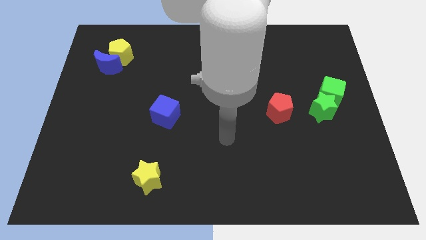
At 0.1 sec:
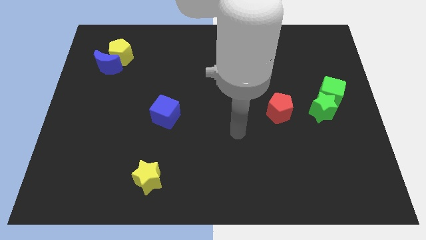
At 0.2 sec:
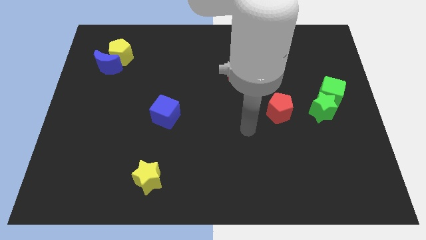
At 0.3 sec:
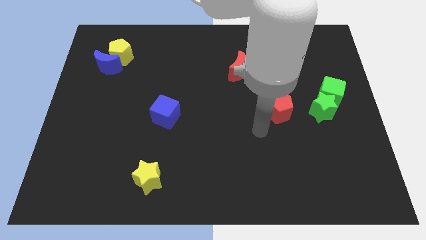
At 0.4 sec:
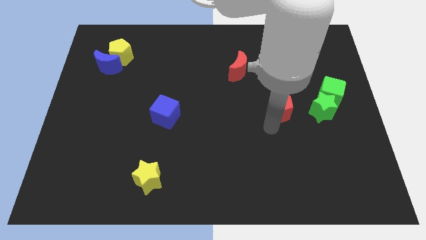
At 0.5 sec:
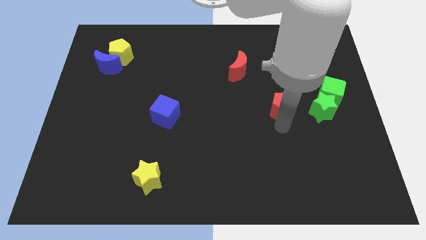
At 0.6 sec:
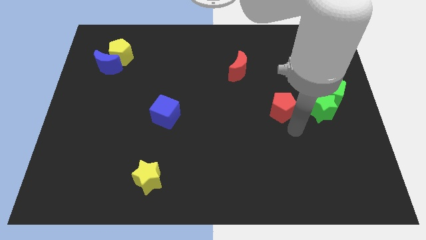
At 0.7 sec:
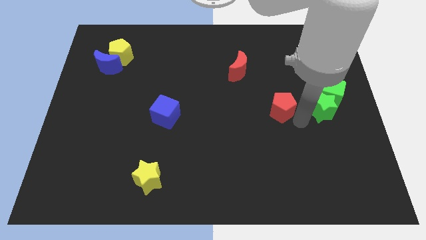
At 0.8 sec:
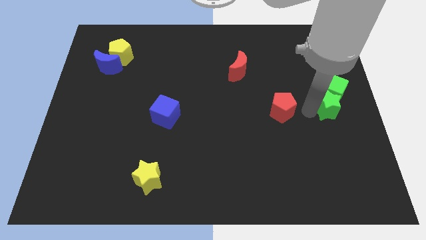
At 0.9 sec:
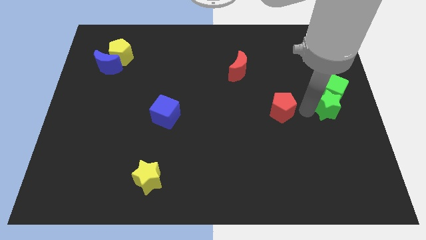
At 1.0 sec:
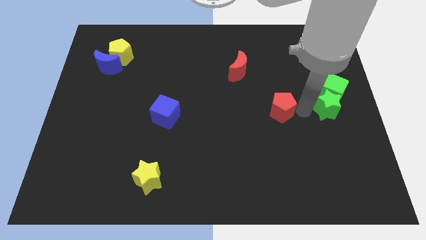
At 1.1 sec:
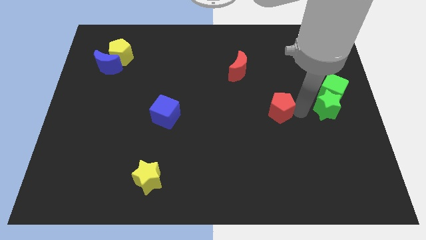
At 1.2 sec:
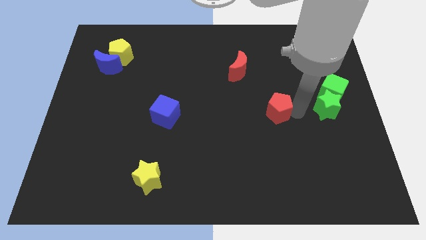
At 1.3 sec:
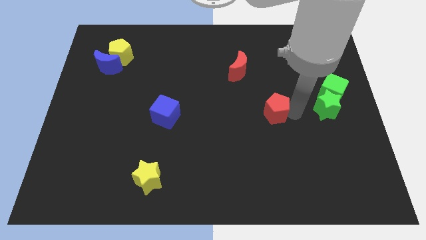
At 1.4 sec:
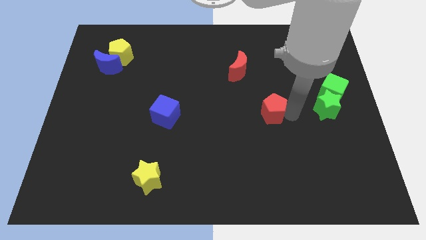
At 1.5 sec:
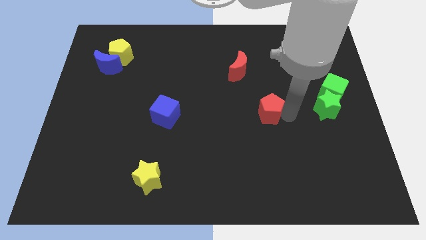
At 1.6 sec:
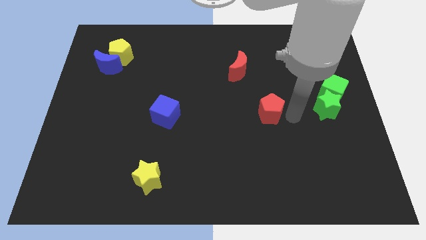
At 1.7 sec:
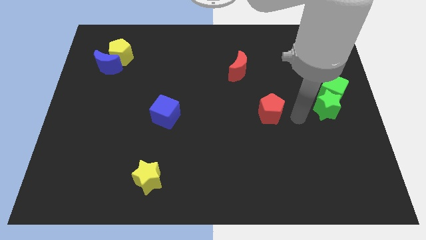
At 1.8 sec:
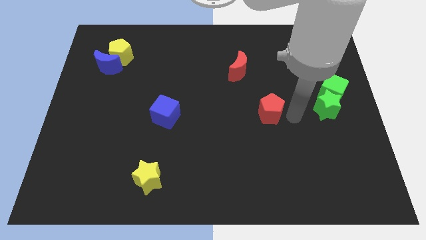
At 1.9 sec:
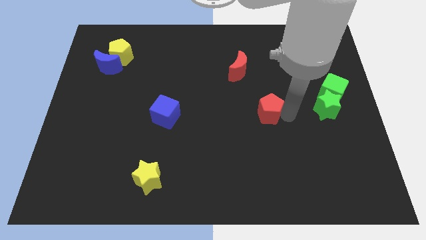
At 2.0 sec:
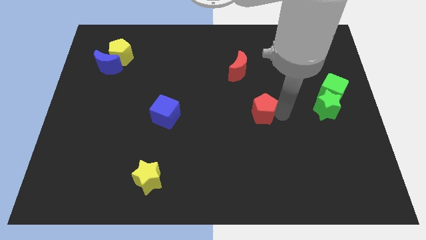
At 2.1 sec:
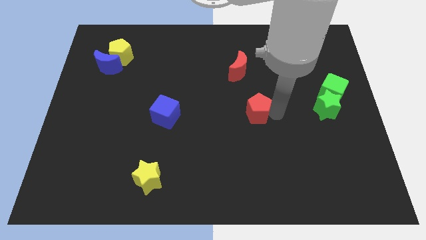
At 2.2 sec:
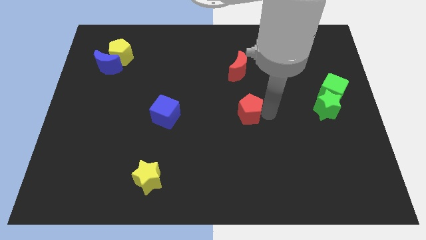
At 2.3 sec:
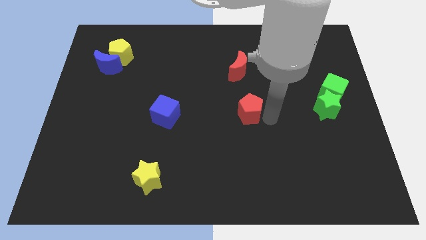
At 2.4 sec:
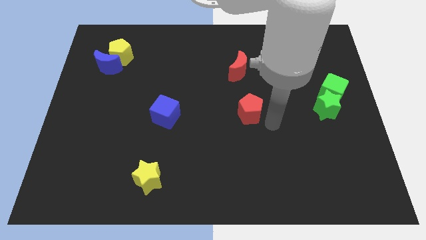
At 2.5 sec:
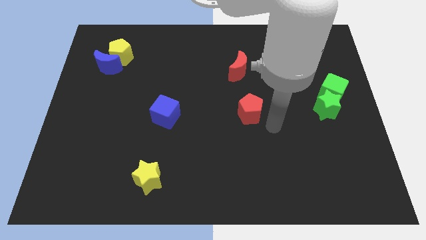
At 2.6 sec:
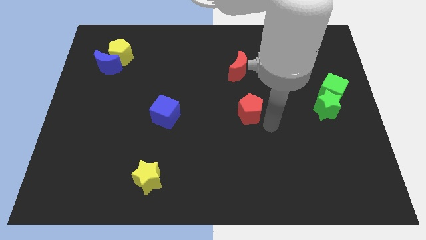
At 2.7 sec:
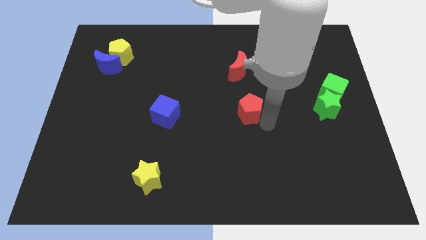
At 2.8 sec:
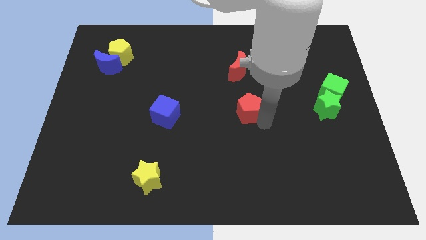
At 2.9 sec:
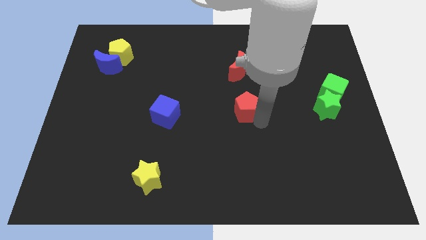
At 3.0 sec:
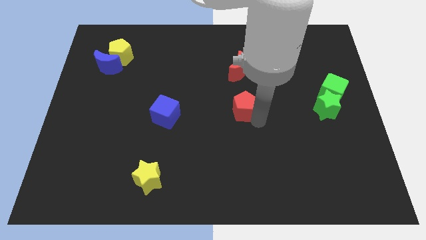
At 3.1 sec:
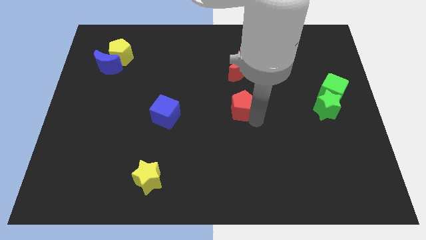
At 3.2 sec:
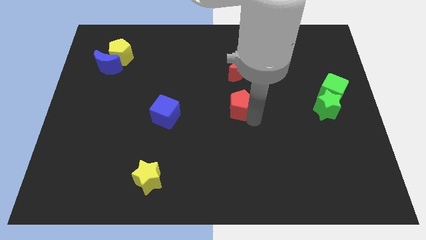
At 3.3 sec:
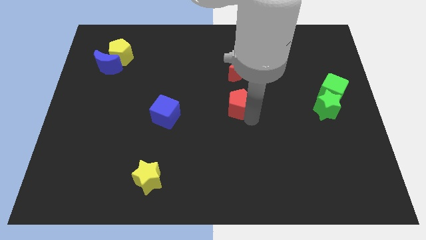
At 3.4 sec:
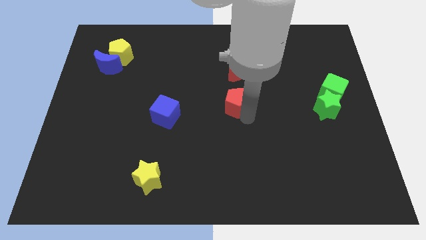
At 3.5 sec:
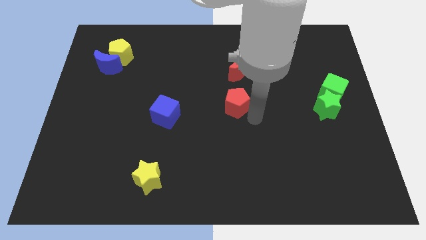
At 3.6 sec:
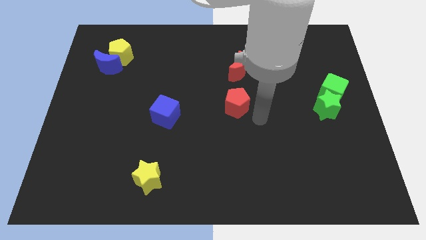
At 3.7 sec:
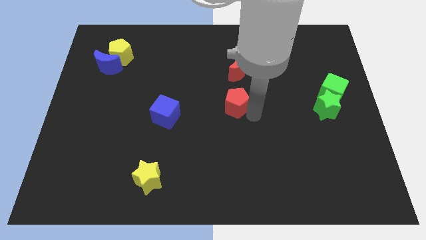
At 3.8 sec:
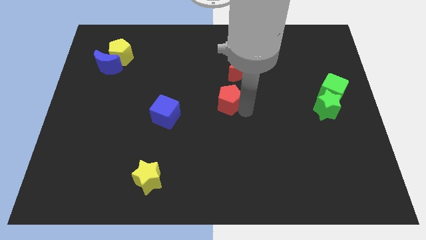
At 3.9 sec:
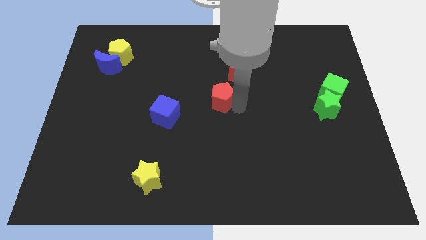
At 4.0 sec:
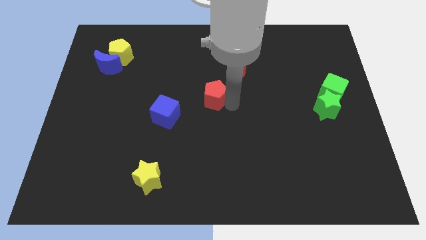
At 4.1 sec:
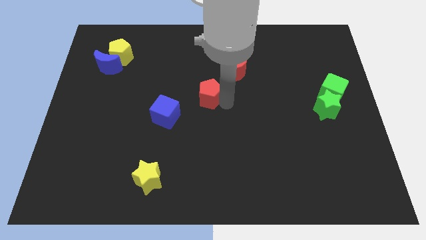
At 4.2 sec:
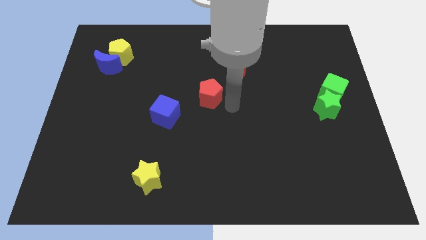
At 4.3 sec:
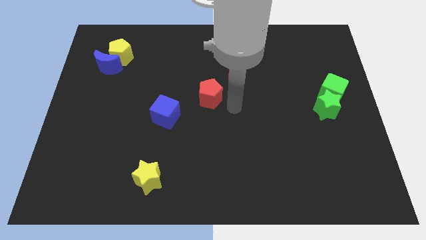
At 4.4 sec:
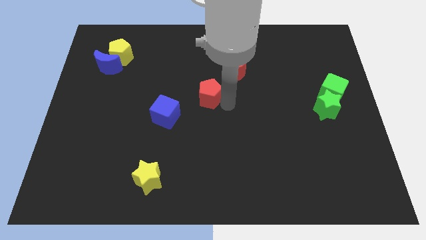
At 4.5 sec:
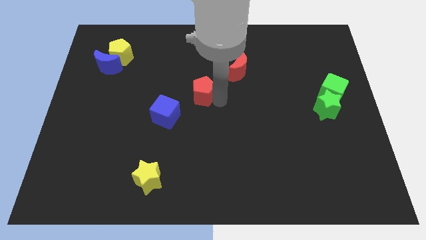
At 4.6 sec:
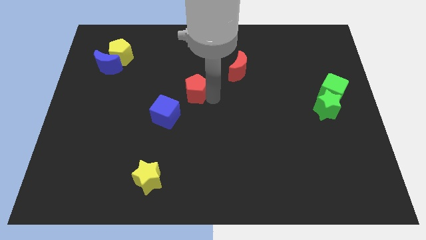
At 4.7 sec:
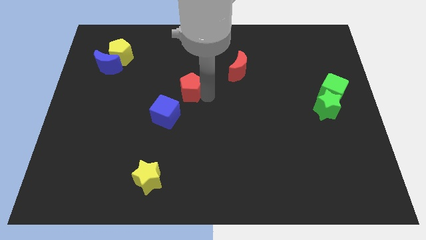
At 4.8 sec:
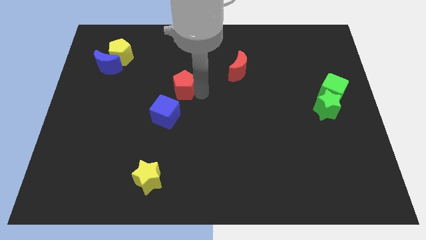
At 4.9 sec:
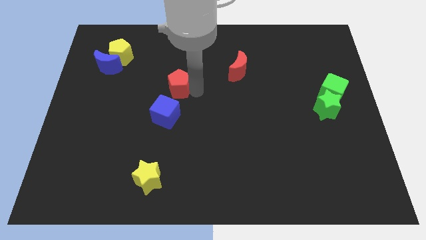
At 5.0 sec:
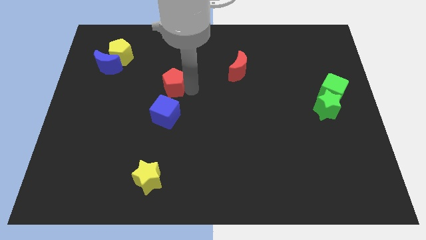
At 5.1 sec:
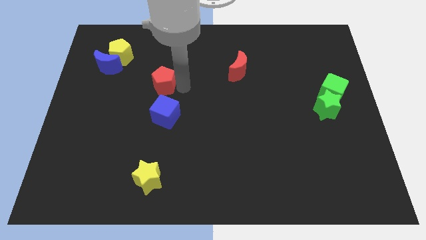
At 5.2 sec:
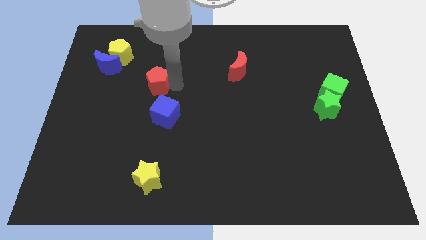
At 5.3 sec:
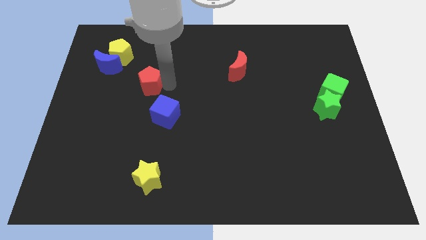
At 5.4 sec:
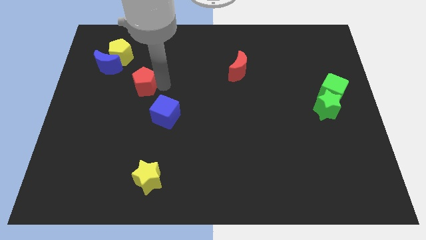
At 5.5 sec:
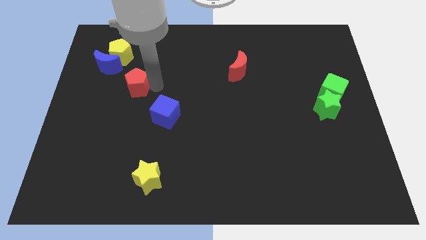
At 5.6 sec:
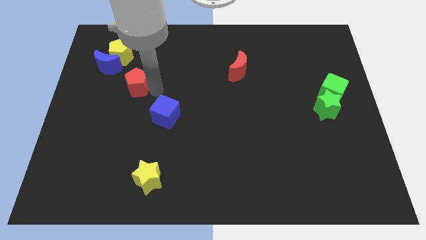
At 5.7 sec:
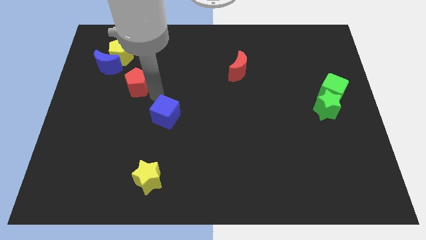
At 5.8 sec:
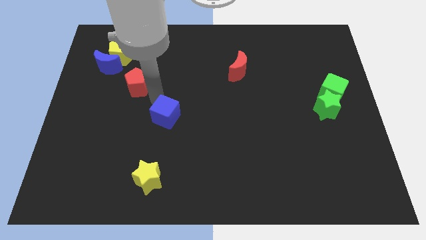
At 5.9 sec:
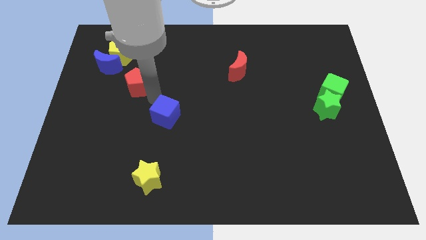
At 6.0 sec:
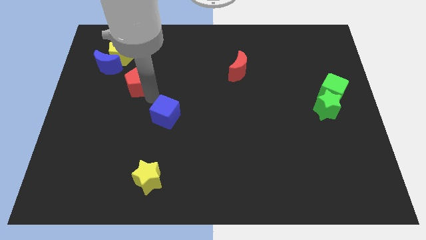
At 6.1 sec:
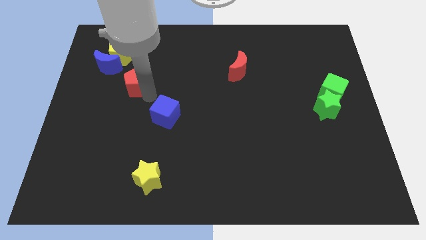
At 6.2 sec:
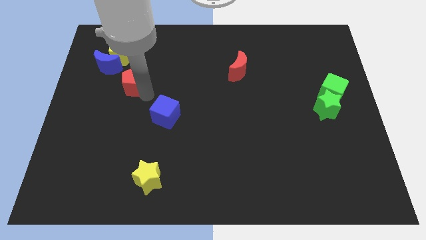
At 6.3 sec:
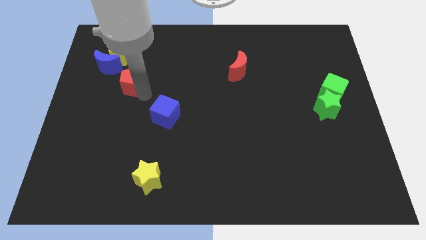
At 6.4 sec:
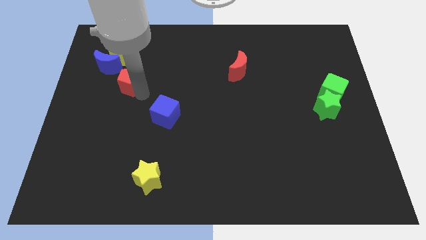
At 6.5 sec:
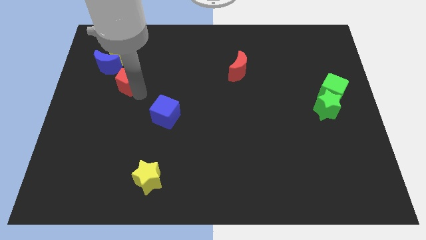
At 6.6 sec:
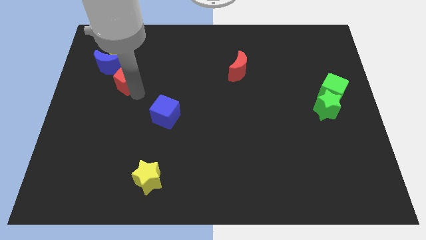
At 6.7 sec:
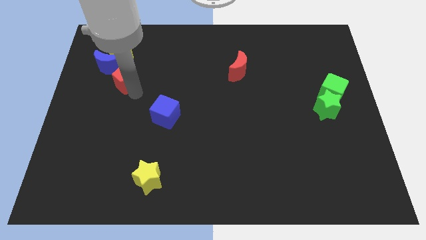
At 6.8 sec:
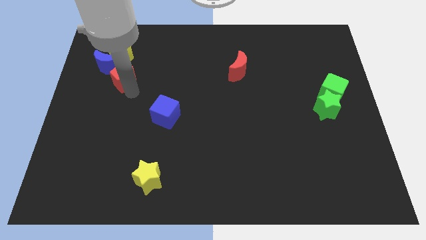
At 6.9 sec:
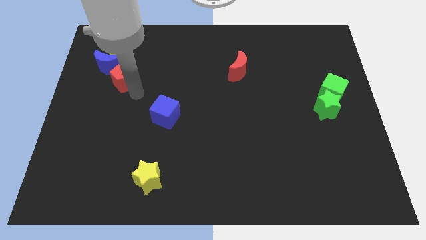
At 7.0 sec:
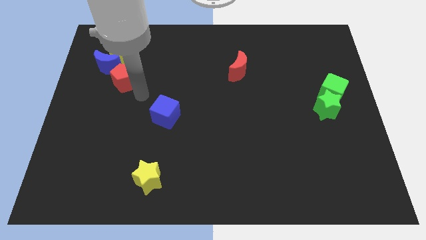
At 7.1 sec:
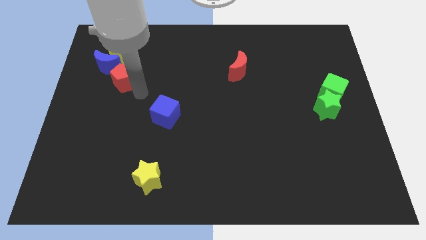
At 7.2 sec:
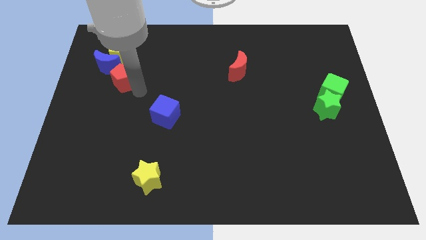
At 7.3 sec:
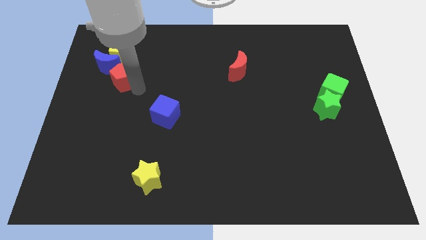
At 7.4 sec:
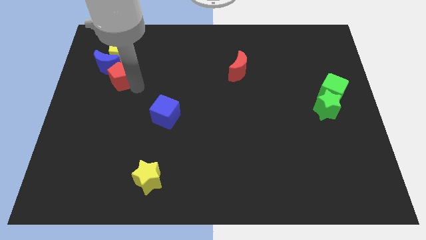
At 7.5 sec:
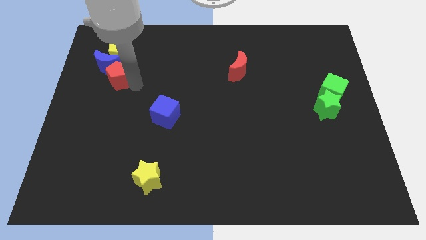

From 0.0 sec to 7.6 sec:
push the red pentagon close to the blue moon
